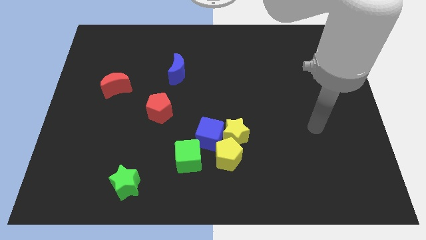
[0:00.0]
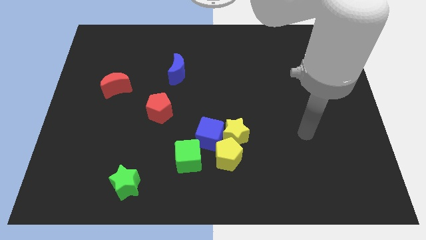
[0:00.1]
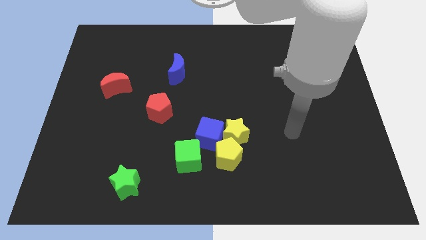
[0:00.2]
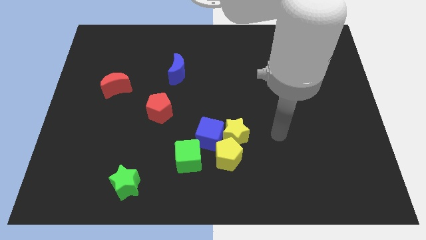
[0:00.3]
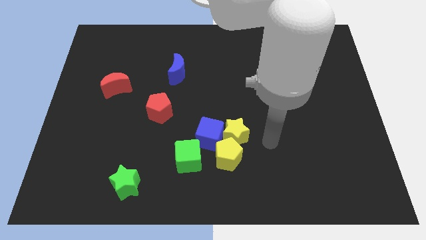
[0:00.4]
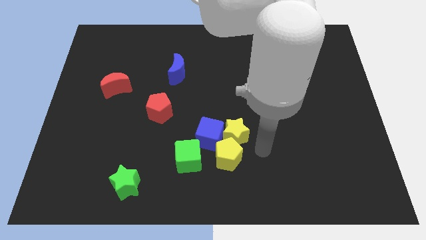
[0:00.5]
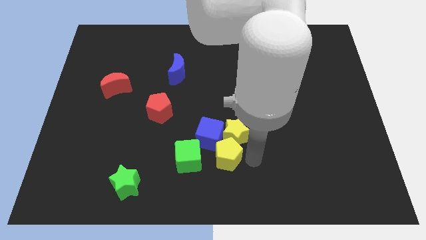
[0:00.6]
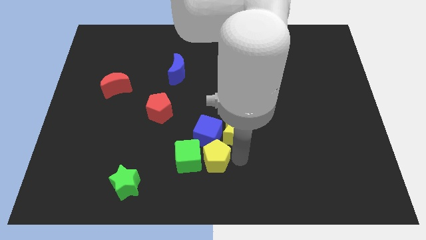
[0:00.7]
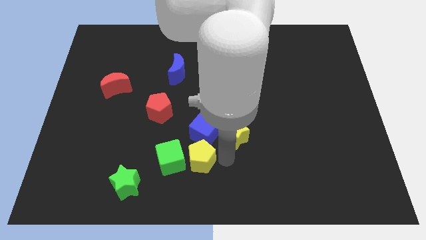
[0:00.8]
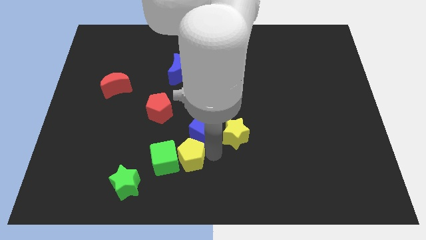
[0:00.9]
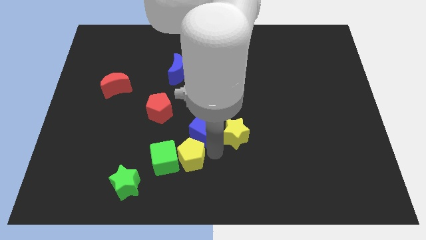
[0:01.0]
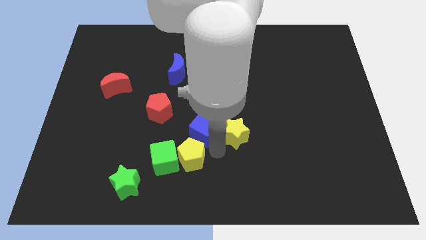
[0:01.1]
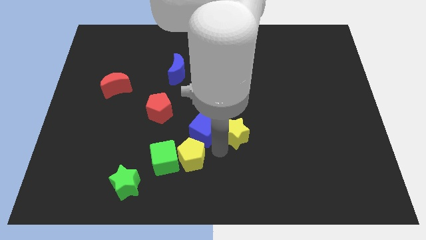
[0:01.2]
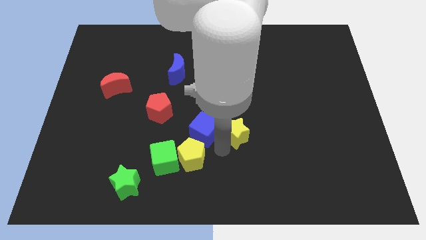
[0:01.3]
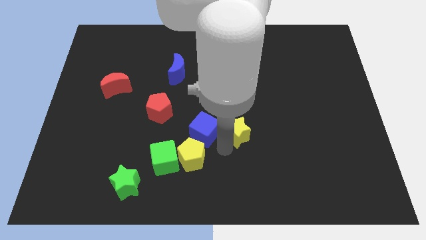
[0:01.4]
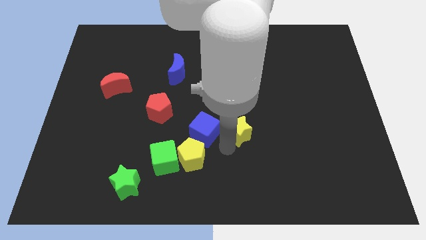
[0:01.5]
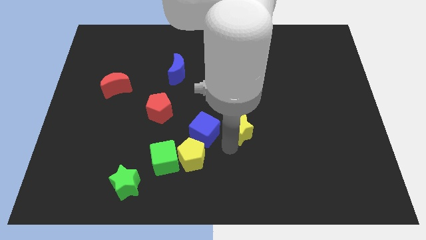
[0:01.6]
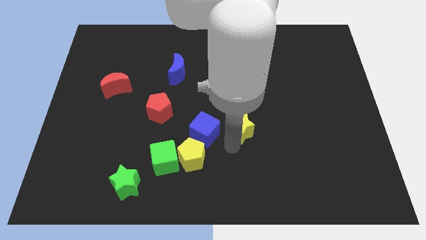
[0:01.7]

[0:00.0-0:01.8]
pull the yellow star apart from the yellow pentagon and blue cube

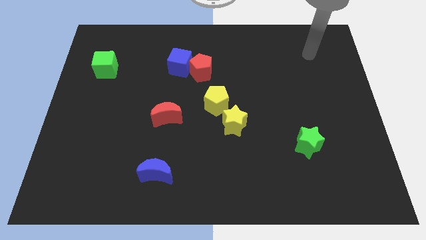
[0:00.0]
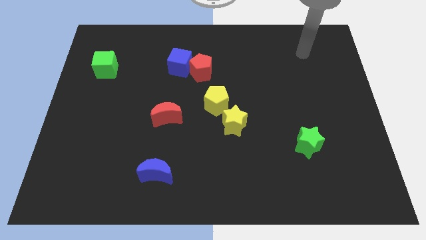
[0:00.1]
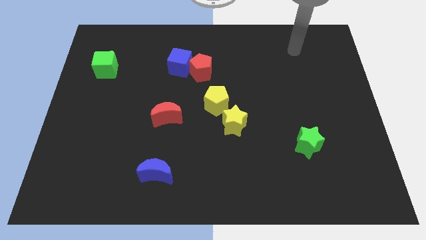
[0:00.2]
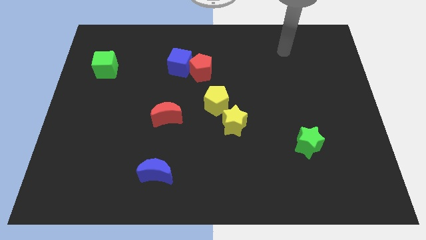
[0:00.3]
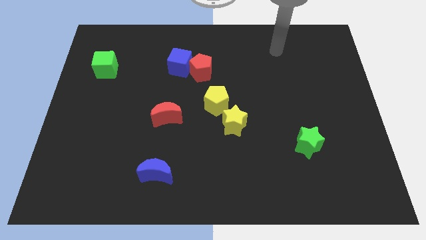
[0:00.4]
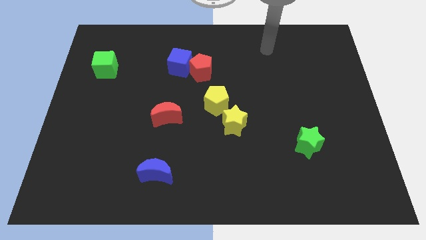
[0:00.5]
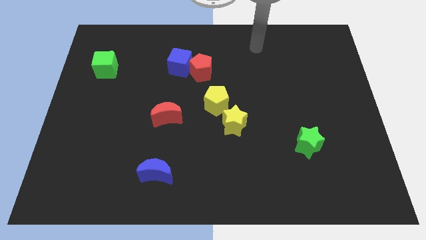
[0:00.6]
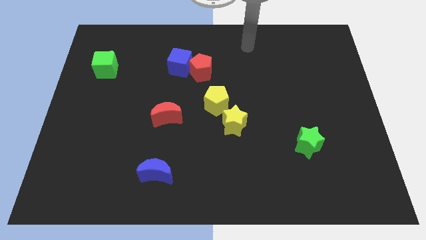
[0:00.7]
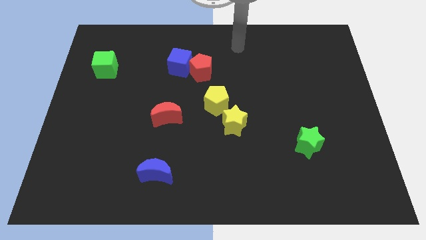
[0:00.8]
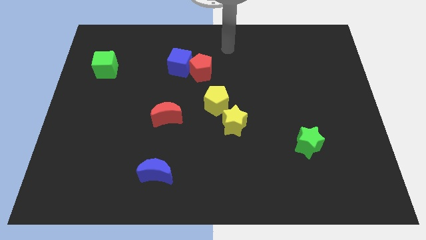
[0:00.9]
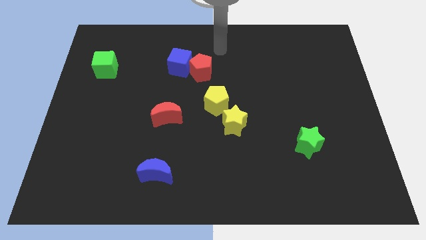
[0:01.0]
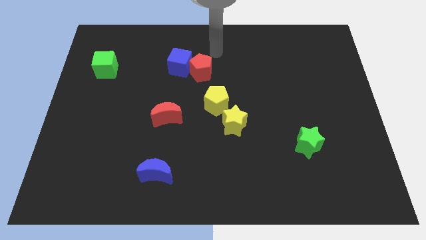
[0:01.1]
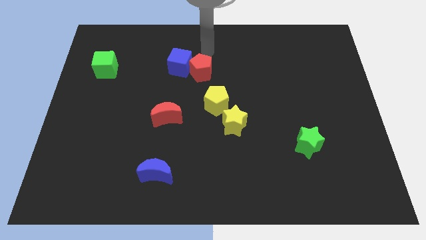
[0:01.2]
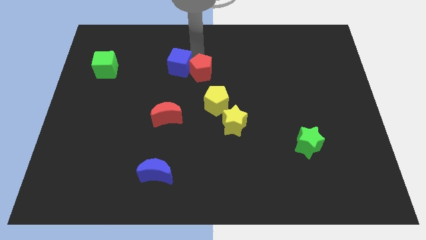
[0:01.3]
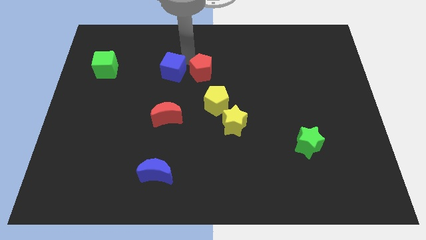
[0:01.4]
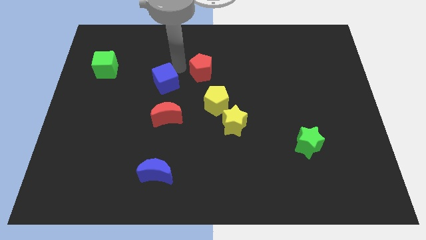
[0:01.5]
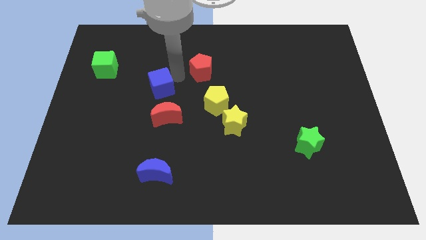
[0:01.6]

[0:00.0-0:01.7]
move the red pentagon away from the blue cube

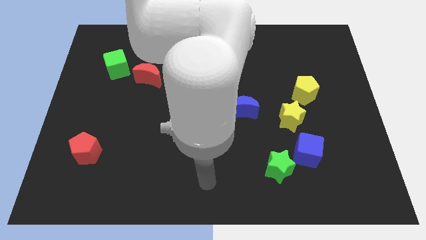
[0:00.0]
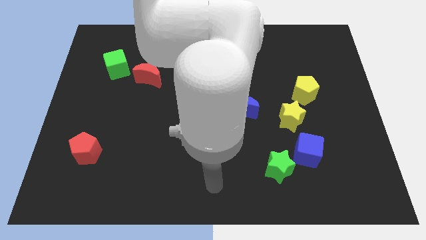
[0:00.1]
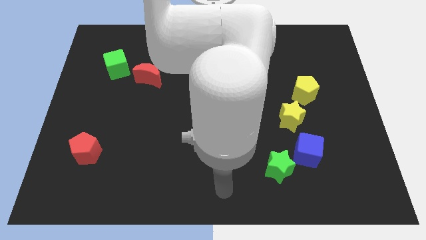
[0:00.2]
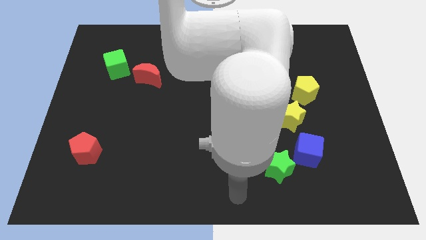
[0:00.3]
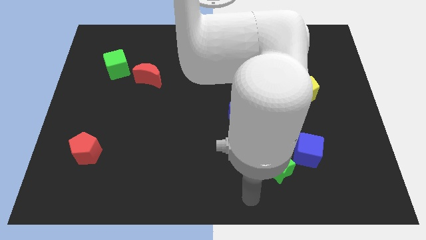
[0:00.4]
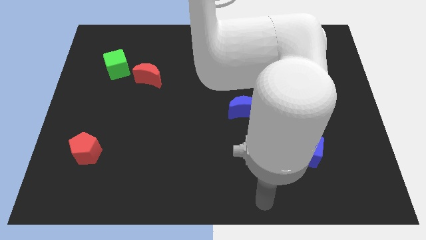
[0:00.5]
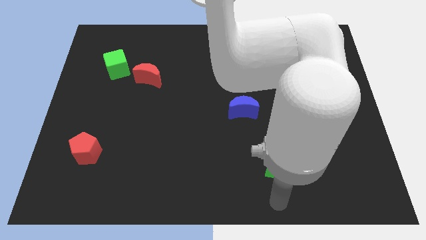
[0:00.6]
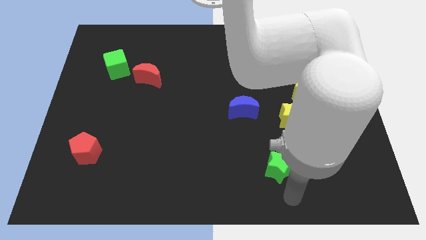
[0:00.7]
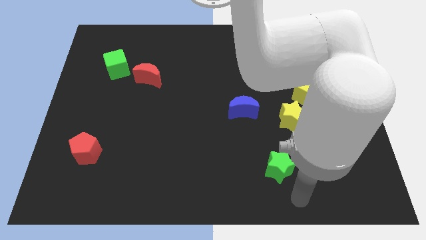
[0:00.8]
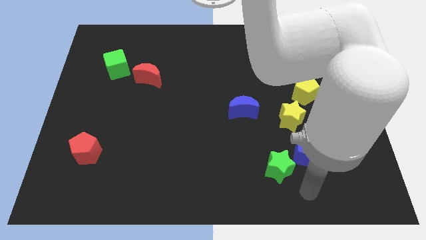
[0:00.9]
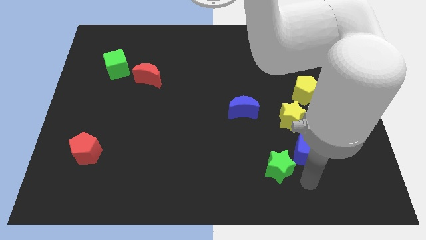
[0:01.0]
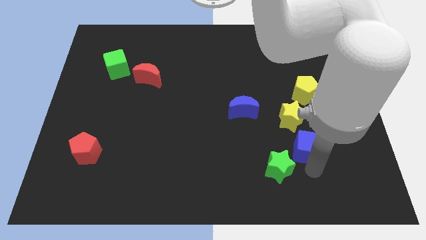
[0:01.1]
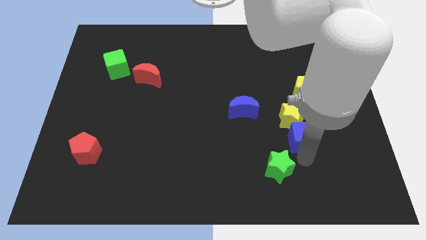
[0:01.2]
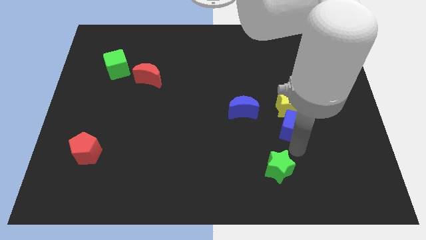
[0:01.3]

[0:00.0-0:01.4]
move the green star away from the blue cube

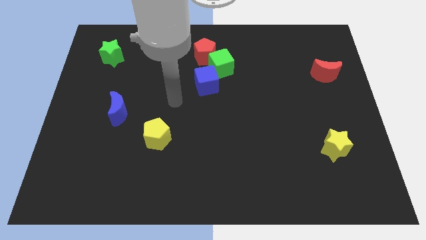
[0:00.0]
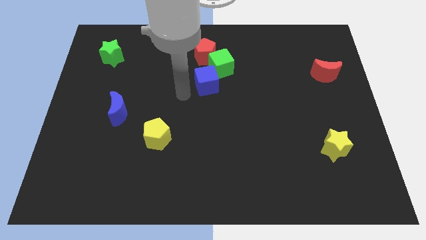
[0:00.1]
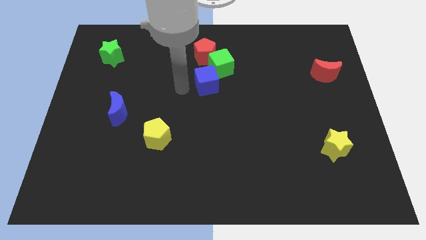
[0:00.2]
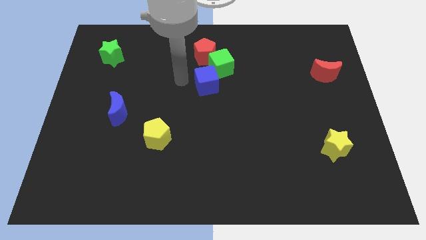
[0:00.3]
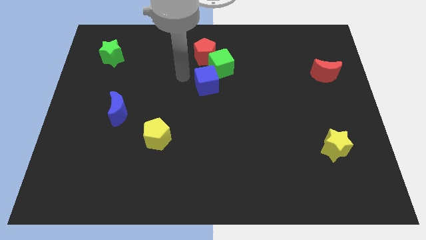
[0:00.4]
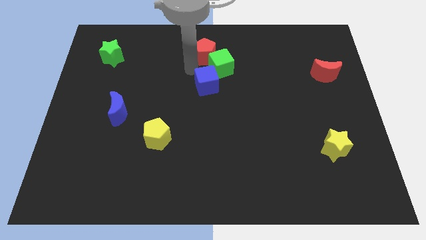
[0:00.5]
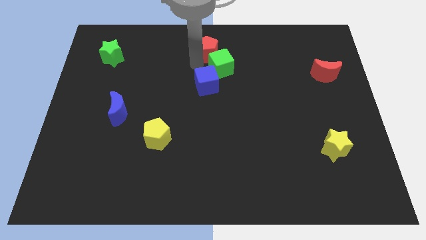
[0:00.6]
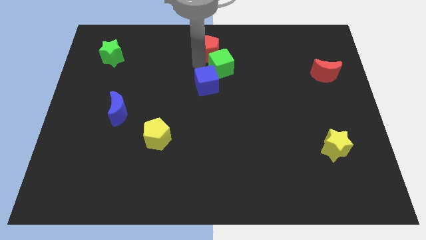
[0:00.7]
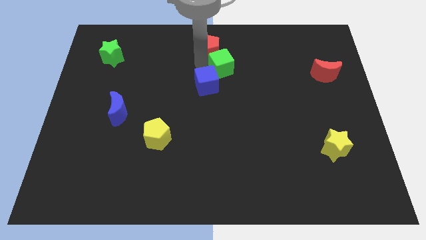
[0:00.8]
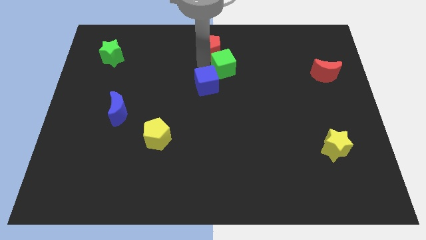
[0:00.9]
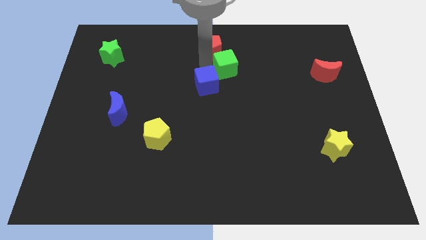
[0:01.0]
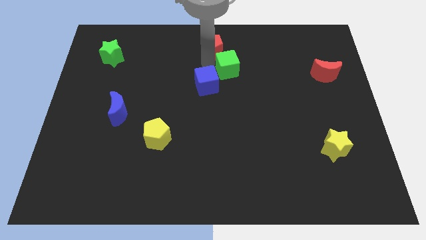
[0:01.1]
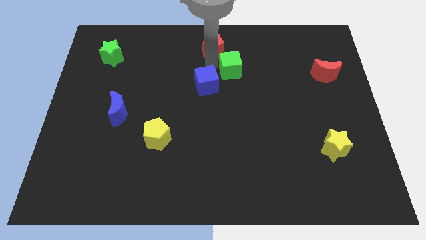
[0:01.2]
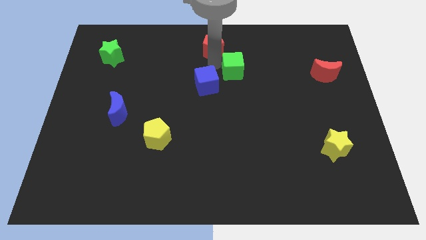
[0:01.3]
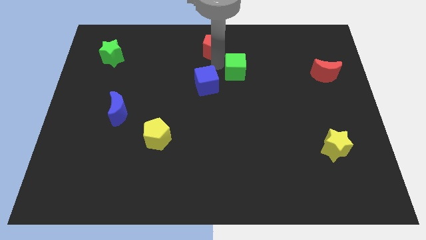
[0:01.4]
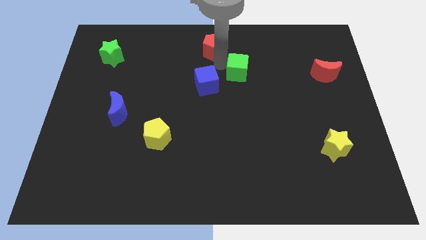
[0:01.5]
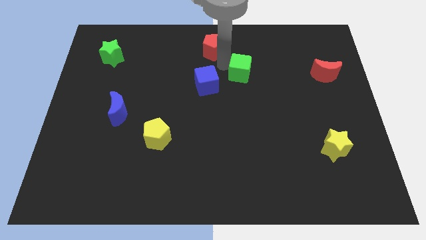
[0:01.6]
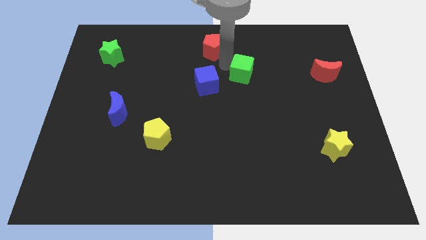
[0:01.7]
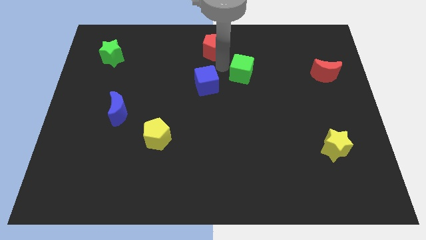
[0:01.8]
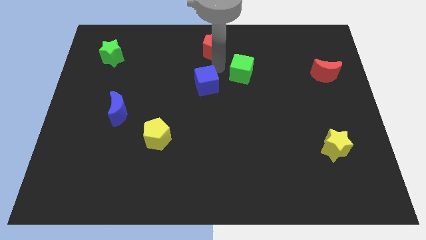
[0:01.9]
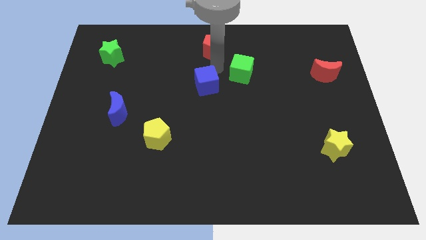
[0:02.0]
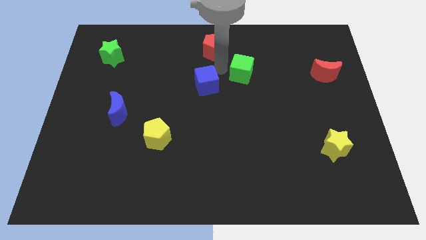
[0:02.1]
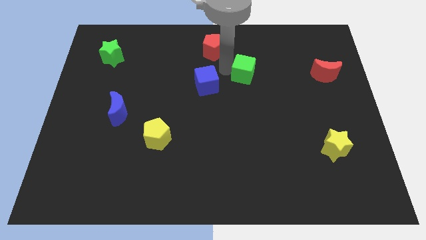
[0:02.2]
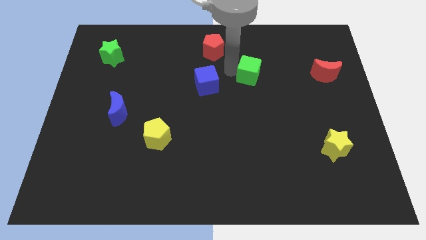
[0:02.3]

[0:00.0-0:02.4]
move the green cube away from the red pentagon and blue cube

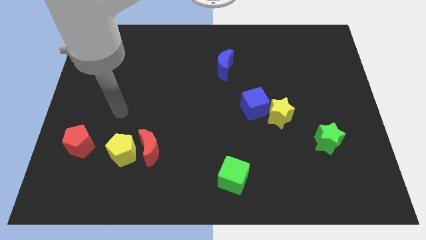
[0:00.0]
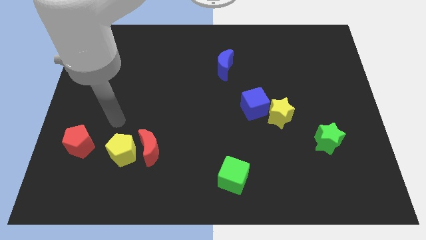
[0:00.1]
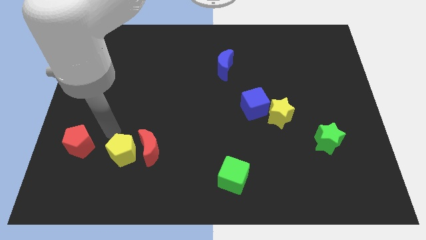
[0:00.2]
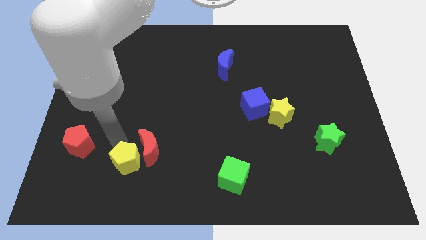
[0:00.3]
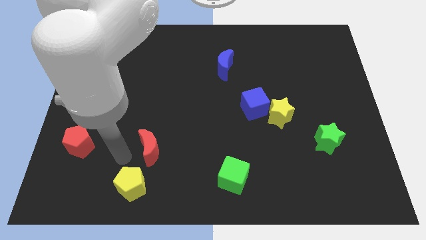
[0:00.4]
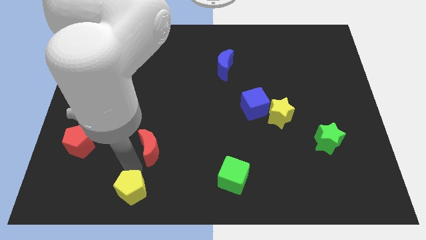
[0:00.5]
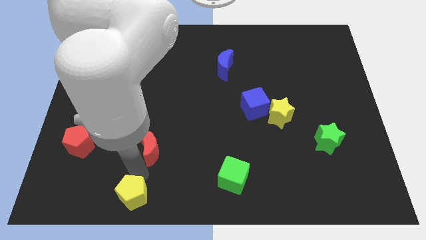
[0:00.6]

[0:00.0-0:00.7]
separate the red moon from the yellow pentagon

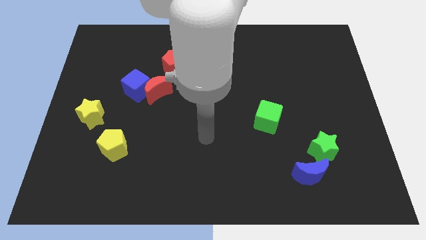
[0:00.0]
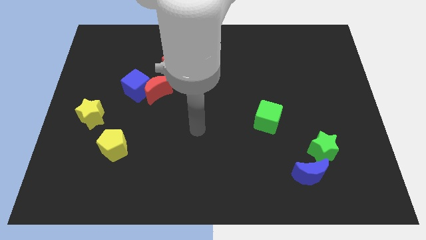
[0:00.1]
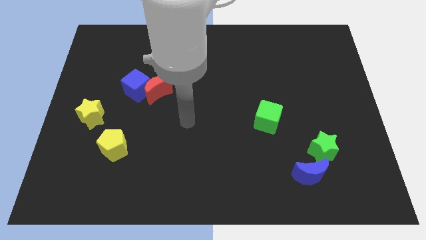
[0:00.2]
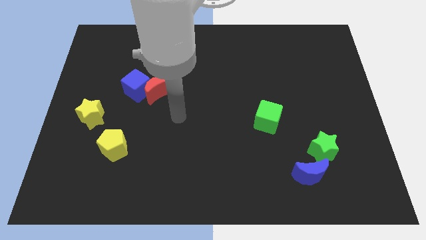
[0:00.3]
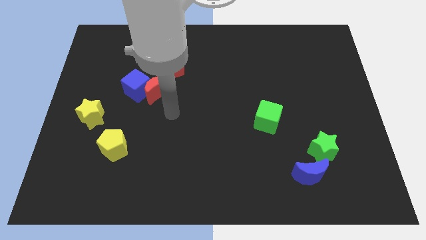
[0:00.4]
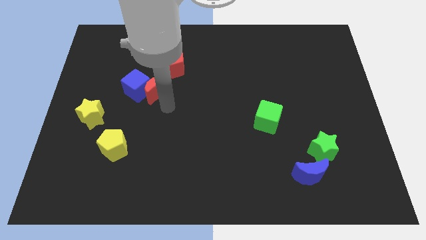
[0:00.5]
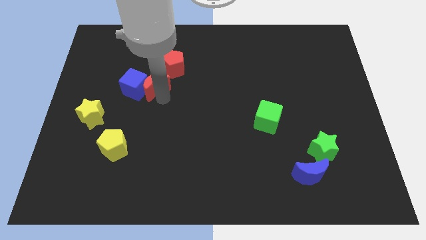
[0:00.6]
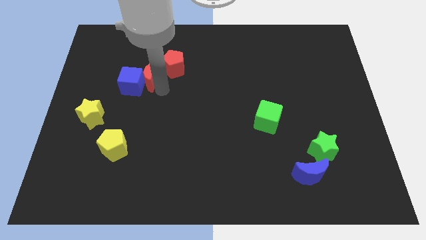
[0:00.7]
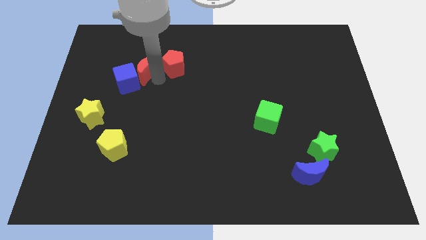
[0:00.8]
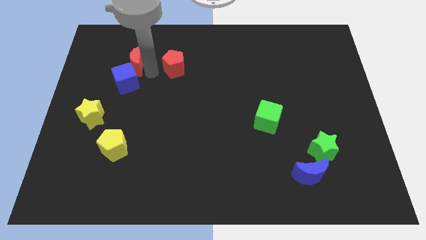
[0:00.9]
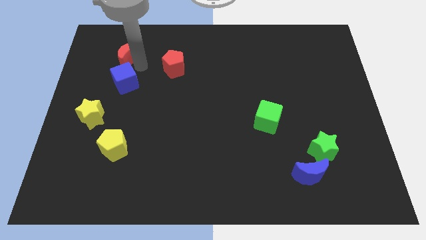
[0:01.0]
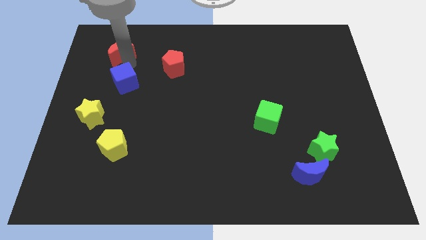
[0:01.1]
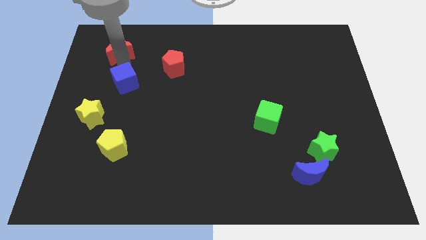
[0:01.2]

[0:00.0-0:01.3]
separate the blue cube from the red moon

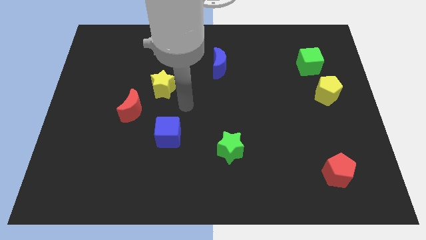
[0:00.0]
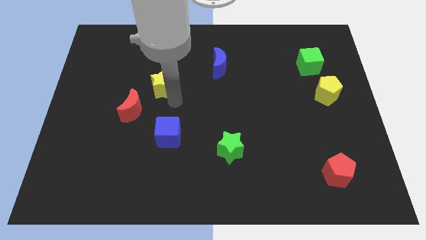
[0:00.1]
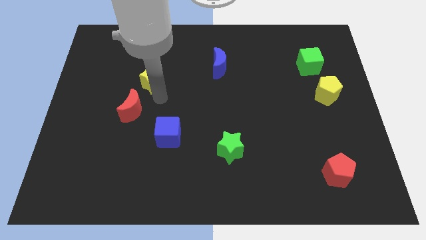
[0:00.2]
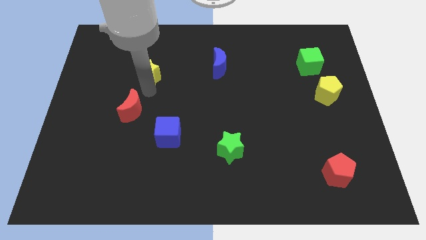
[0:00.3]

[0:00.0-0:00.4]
pull the red moon apart from the yellow star
